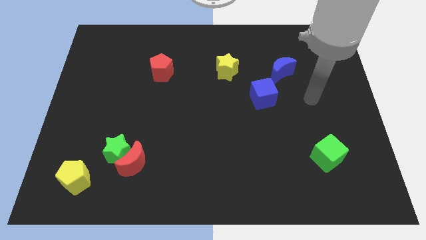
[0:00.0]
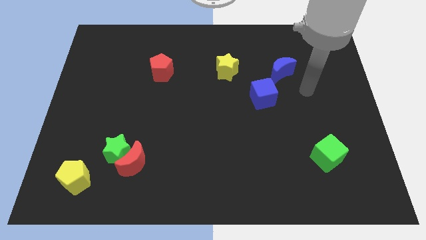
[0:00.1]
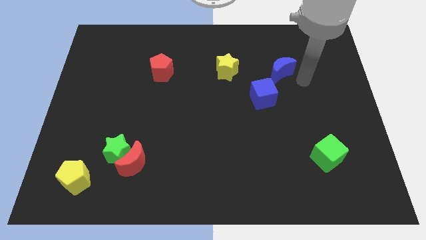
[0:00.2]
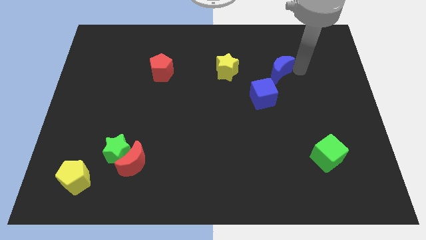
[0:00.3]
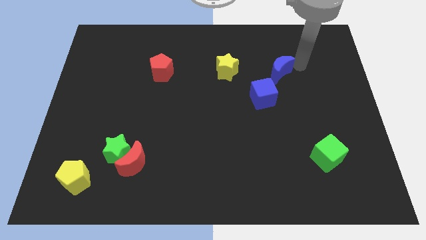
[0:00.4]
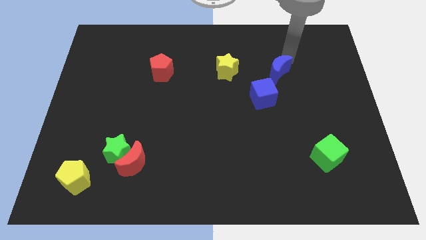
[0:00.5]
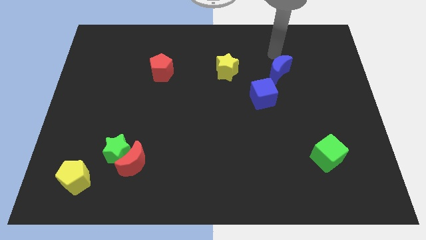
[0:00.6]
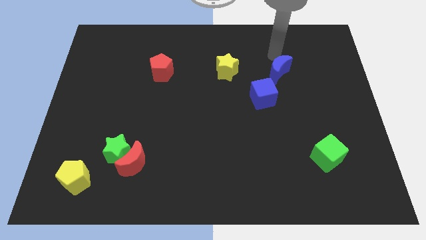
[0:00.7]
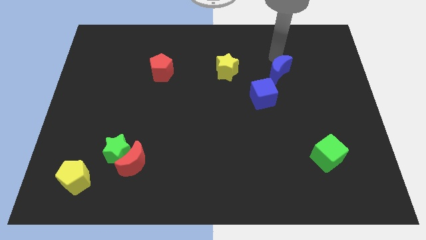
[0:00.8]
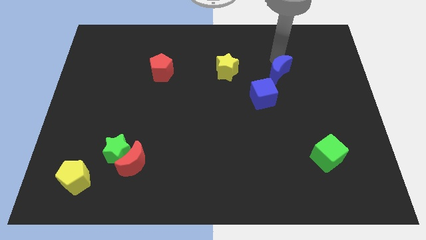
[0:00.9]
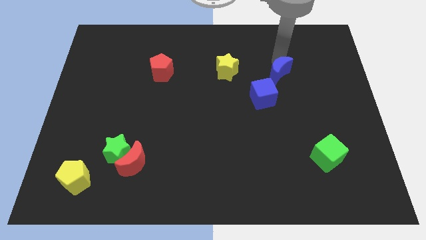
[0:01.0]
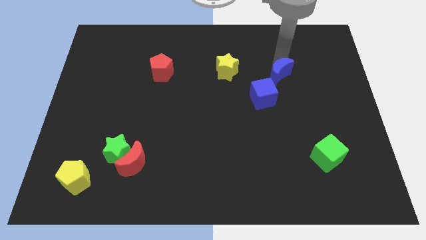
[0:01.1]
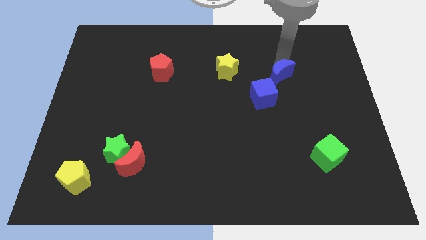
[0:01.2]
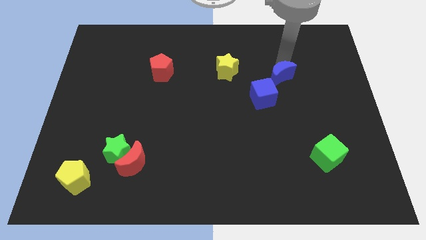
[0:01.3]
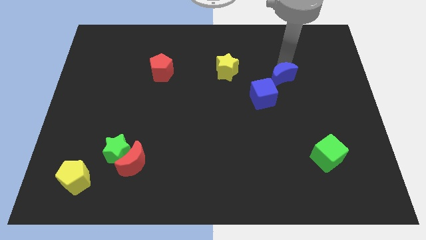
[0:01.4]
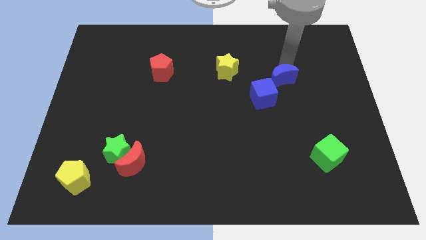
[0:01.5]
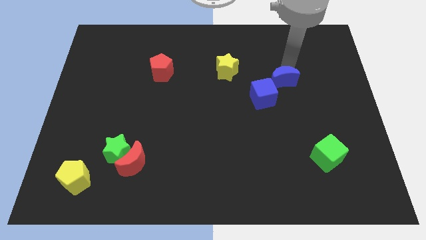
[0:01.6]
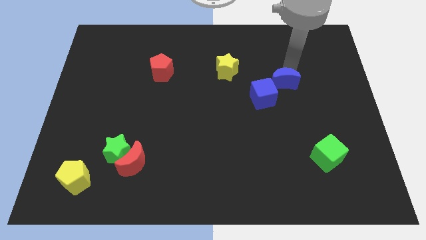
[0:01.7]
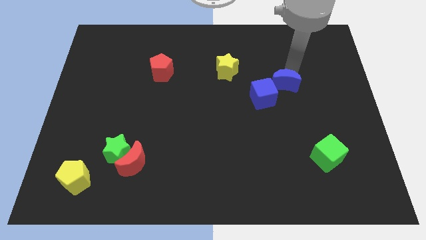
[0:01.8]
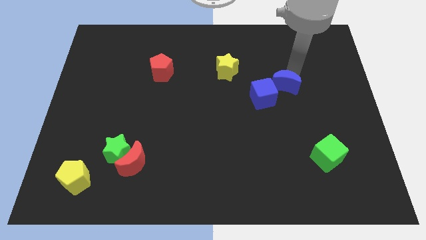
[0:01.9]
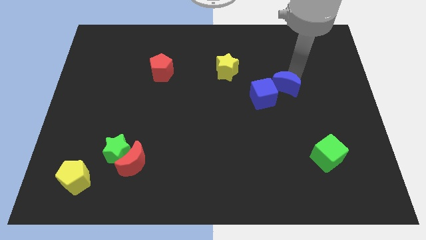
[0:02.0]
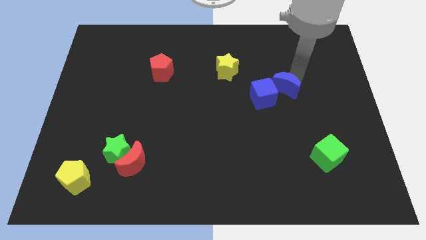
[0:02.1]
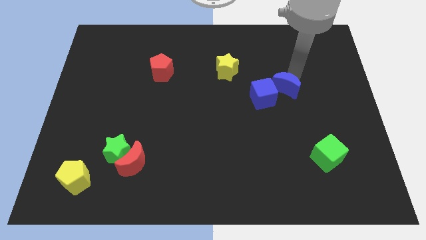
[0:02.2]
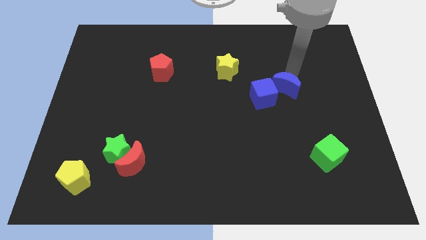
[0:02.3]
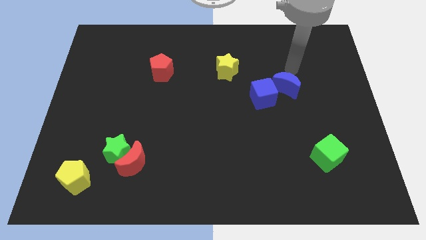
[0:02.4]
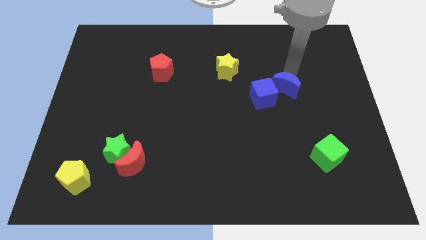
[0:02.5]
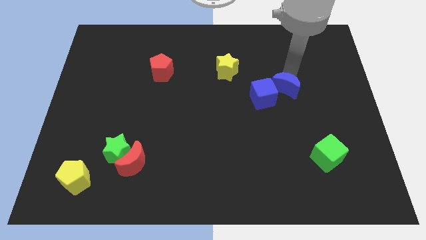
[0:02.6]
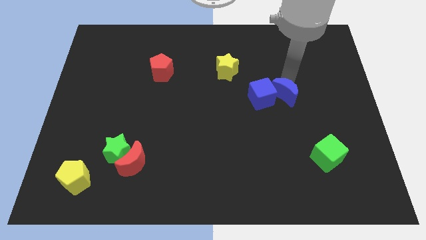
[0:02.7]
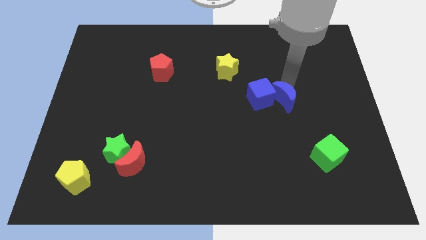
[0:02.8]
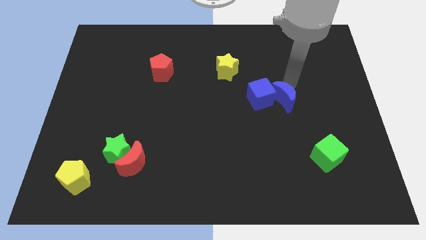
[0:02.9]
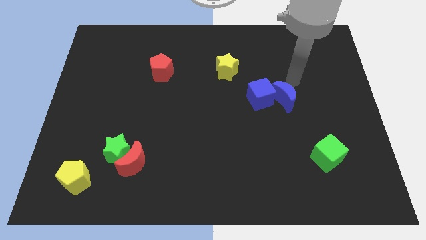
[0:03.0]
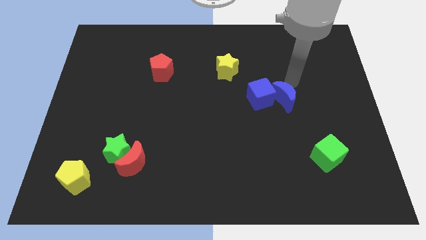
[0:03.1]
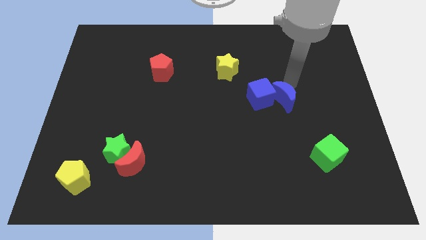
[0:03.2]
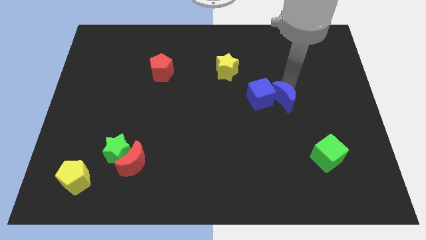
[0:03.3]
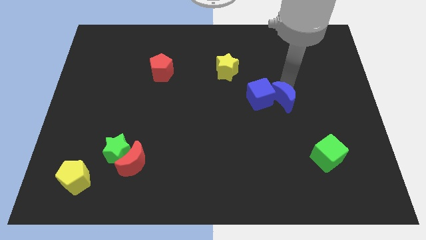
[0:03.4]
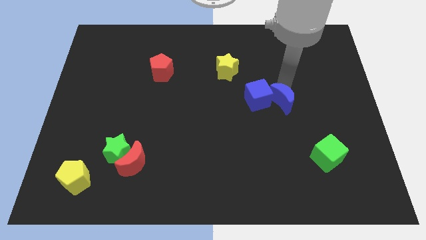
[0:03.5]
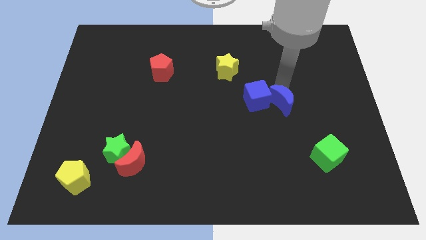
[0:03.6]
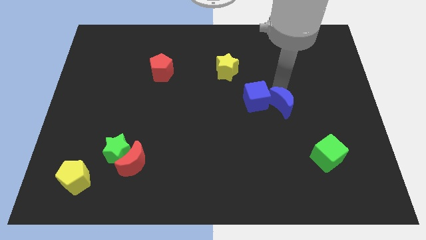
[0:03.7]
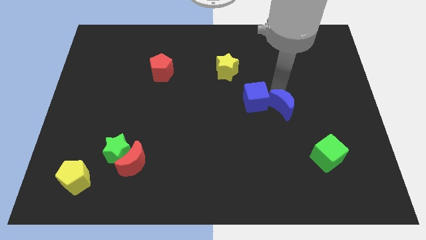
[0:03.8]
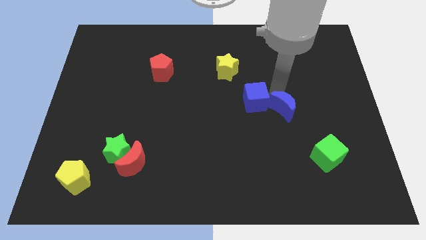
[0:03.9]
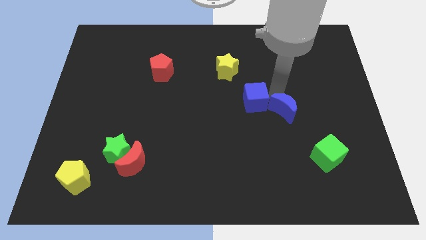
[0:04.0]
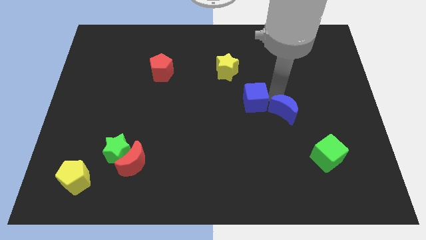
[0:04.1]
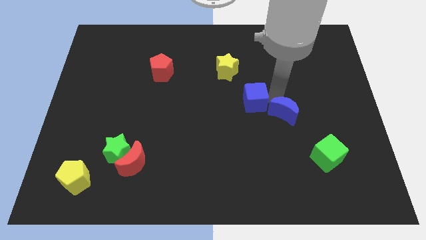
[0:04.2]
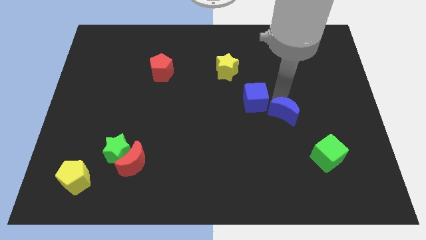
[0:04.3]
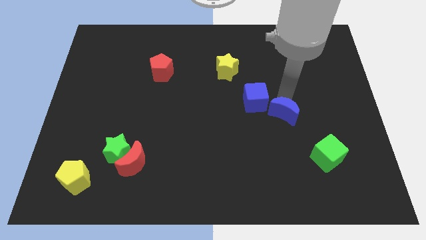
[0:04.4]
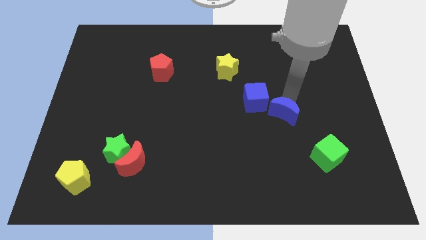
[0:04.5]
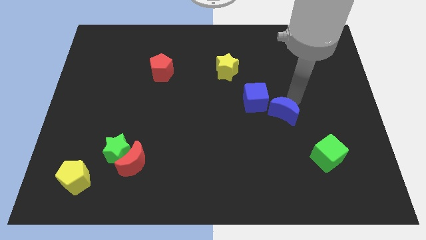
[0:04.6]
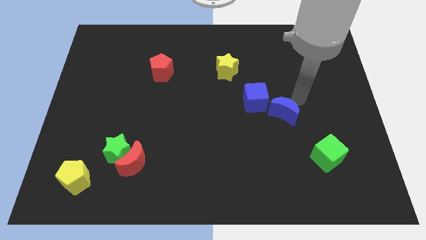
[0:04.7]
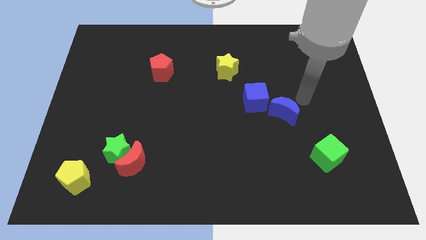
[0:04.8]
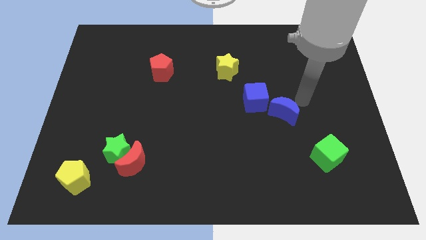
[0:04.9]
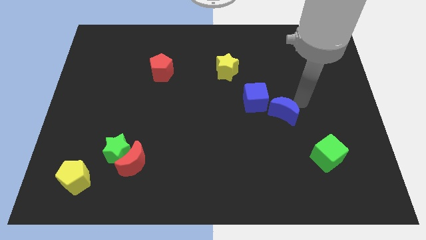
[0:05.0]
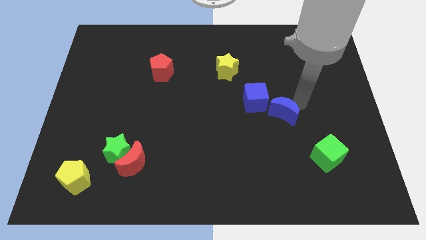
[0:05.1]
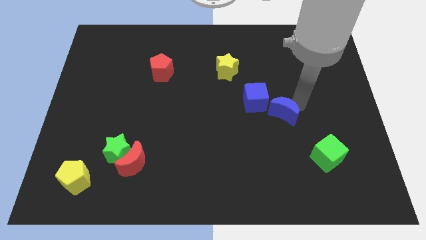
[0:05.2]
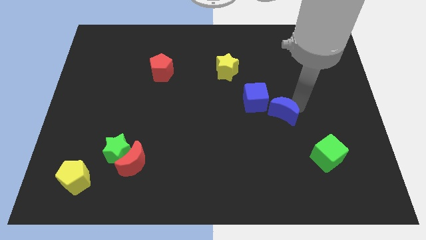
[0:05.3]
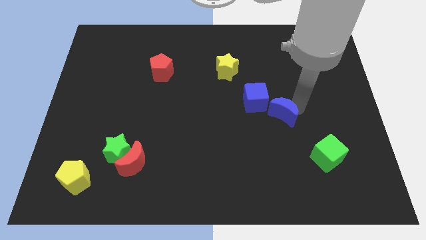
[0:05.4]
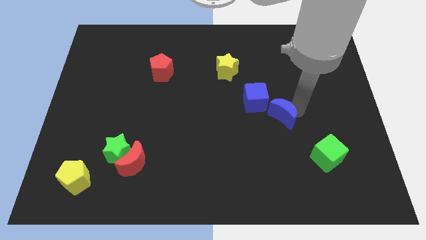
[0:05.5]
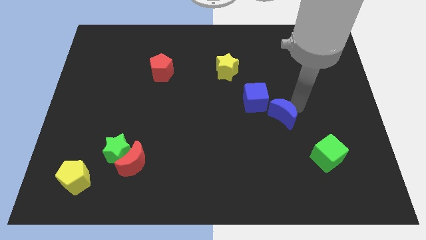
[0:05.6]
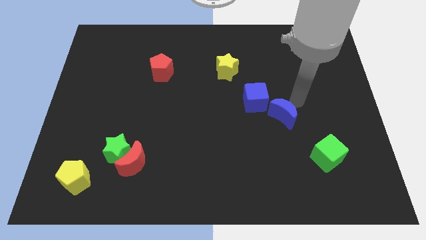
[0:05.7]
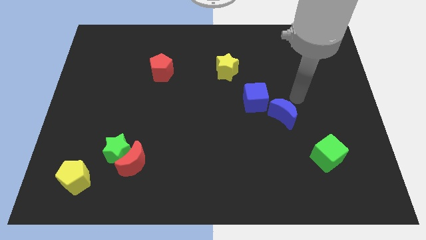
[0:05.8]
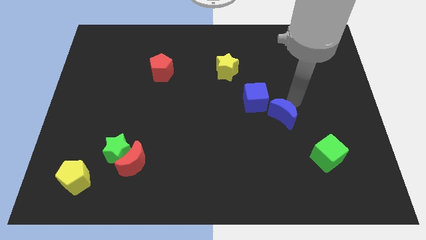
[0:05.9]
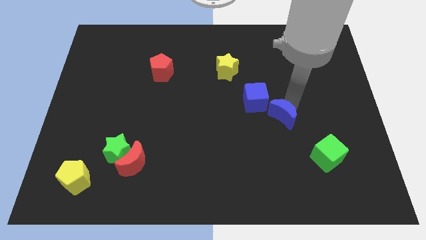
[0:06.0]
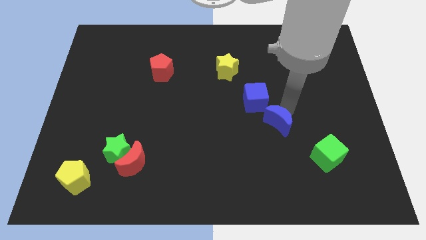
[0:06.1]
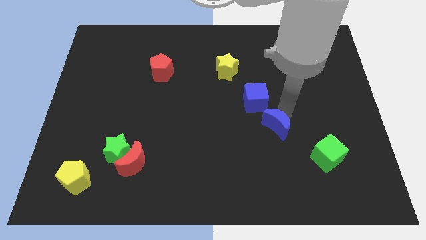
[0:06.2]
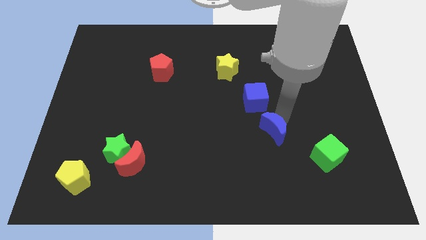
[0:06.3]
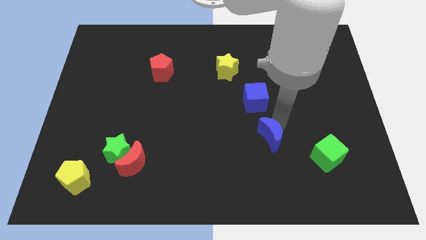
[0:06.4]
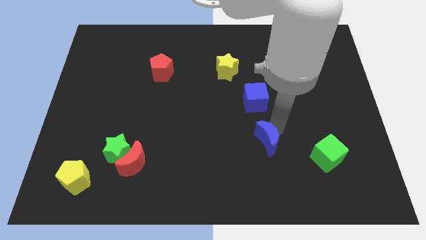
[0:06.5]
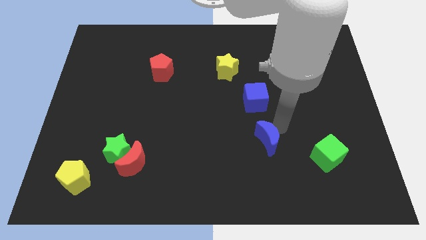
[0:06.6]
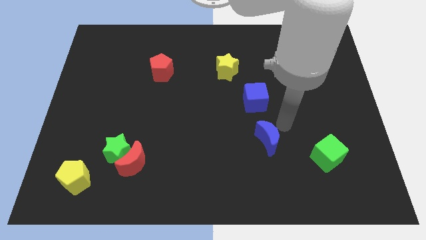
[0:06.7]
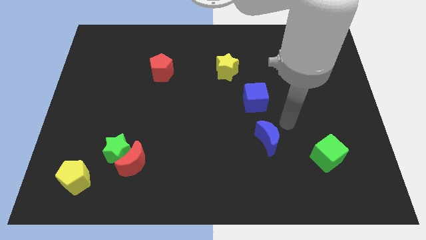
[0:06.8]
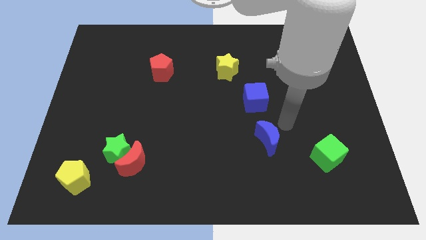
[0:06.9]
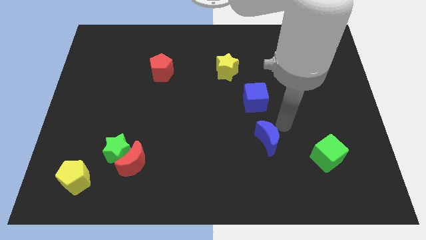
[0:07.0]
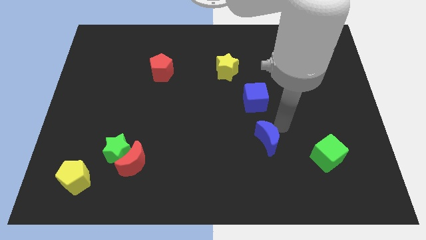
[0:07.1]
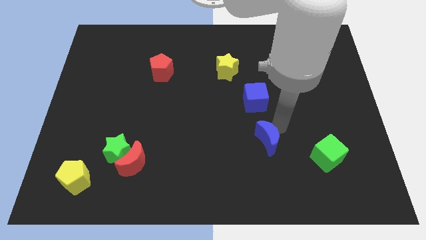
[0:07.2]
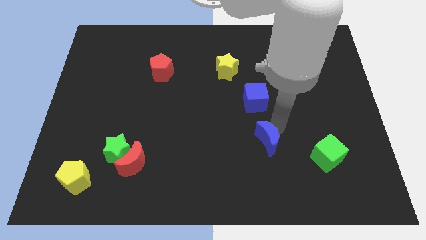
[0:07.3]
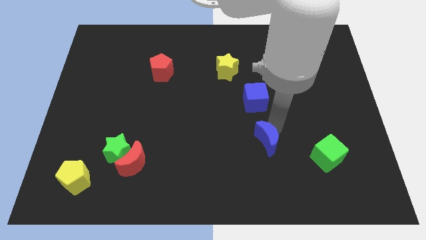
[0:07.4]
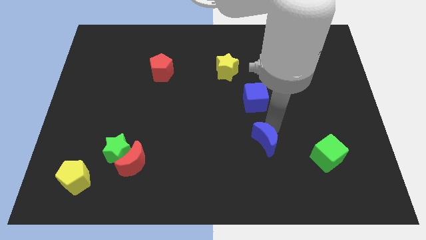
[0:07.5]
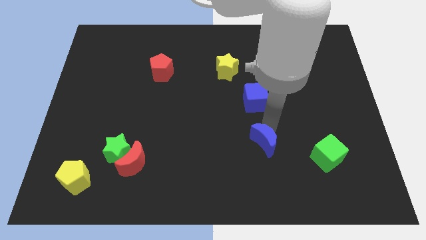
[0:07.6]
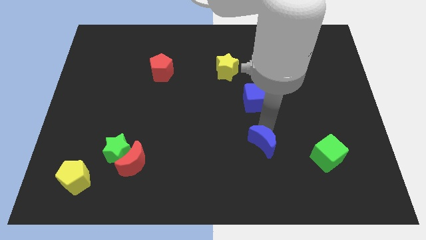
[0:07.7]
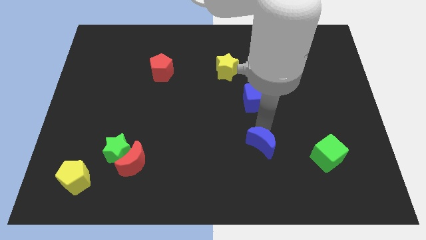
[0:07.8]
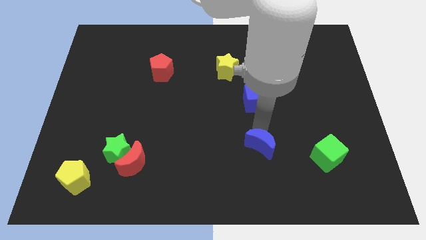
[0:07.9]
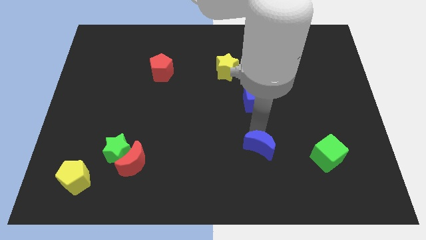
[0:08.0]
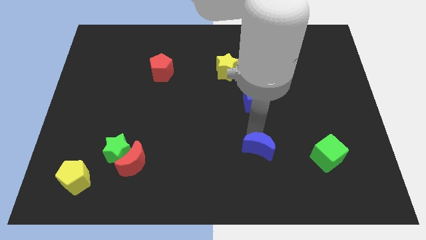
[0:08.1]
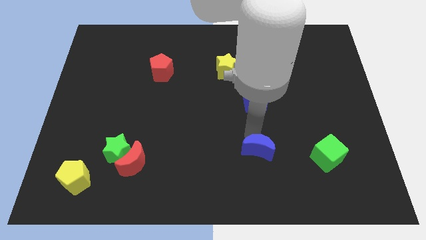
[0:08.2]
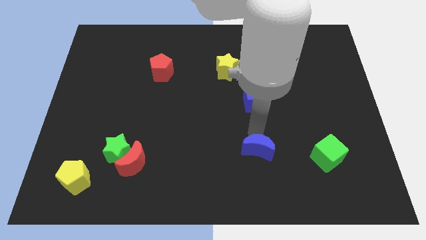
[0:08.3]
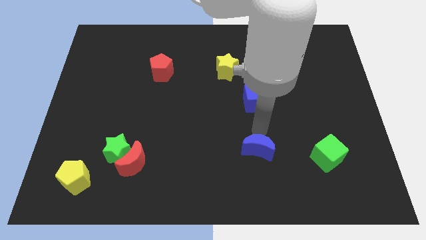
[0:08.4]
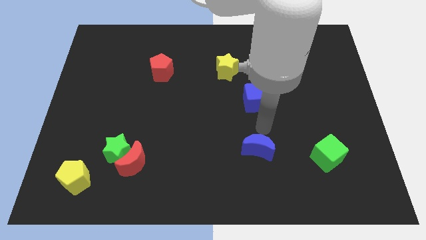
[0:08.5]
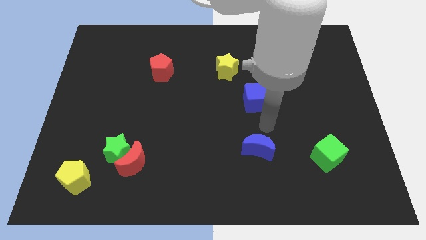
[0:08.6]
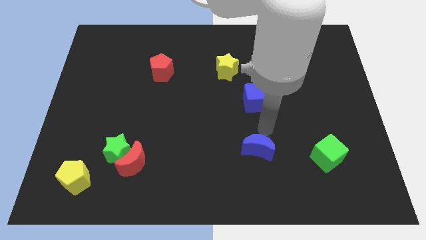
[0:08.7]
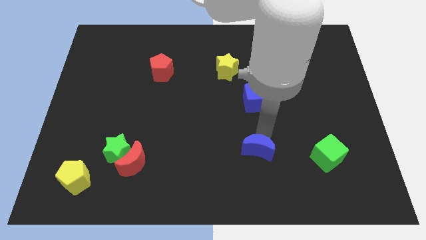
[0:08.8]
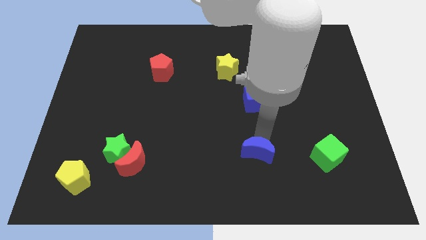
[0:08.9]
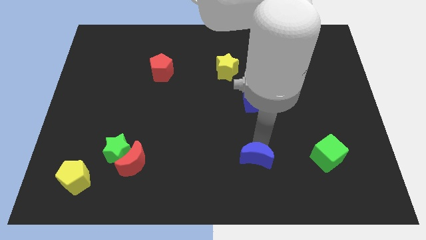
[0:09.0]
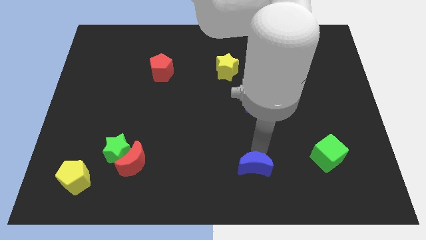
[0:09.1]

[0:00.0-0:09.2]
put the blue moon to the bottom side
